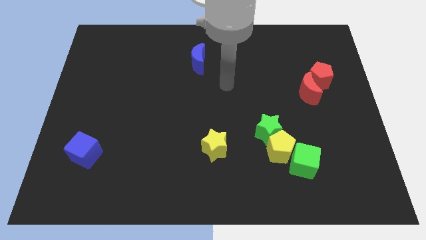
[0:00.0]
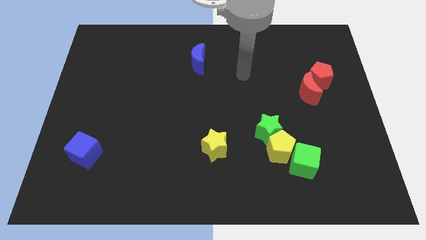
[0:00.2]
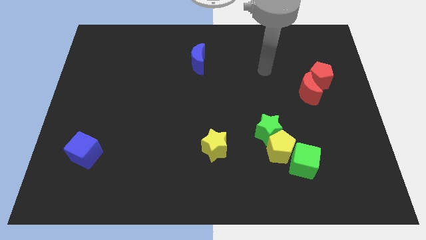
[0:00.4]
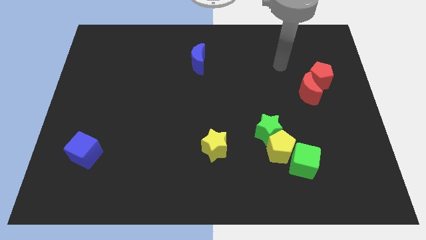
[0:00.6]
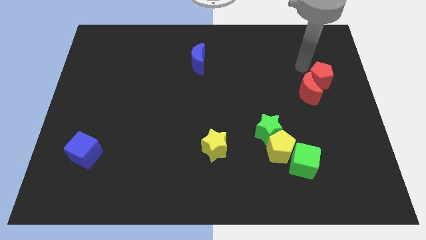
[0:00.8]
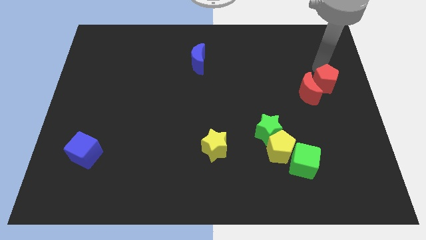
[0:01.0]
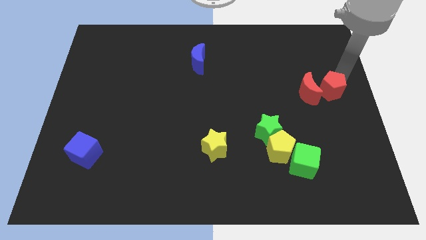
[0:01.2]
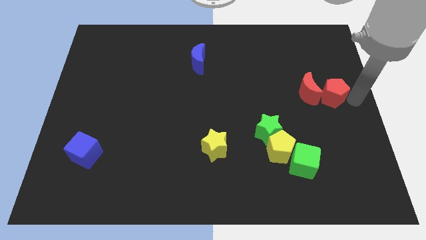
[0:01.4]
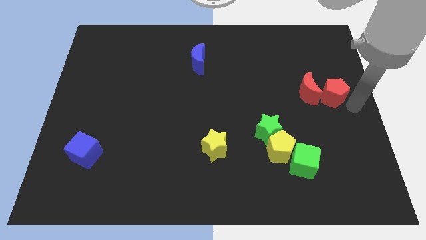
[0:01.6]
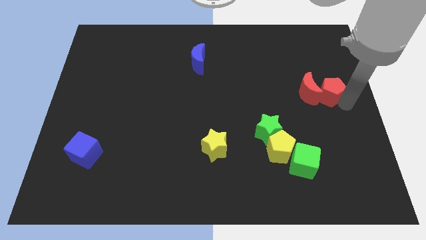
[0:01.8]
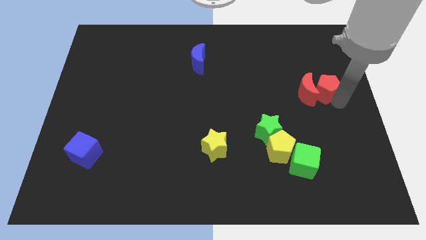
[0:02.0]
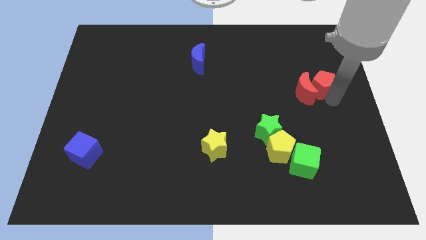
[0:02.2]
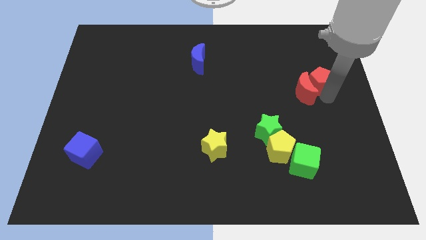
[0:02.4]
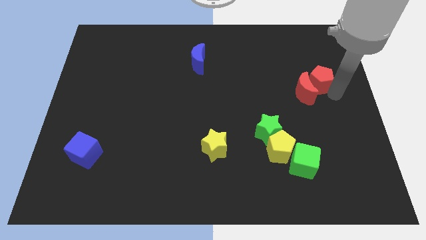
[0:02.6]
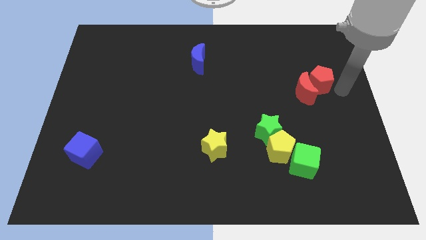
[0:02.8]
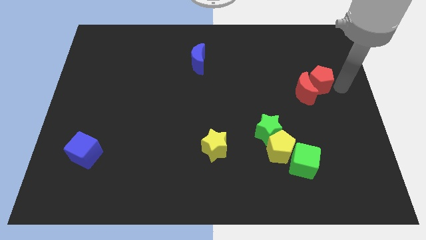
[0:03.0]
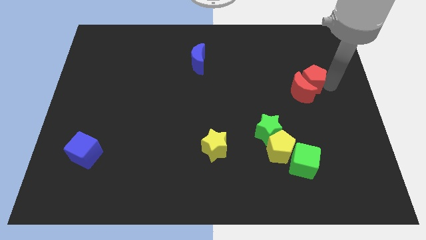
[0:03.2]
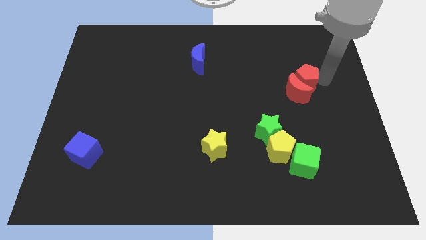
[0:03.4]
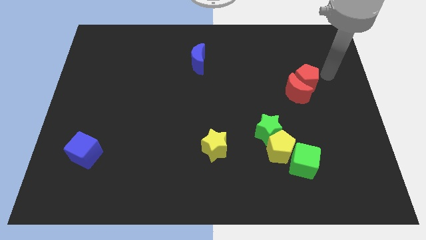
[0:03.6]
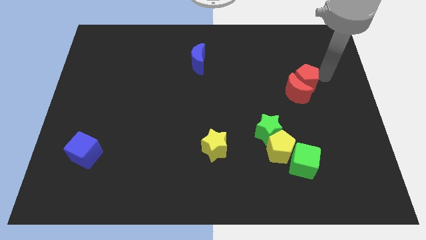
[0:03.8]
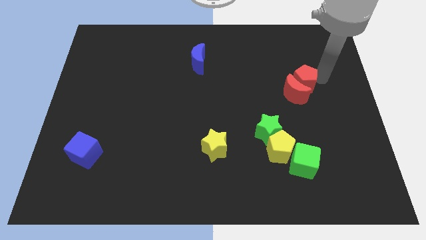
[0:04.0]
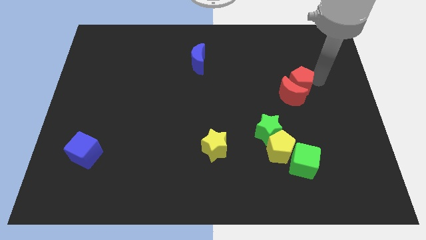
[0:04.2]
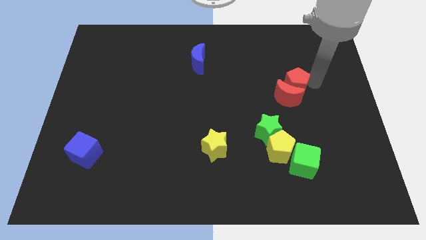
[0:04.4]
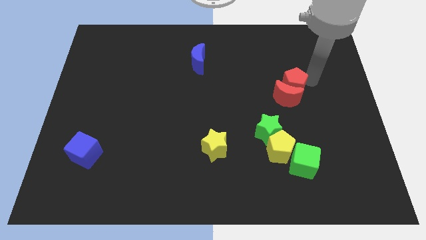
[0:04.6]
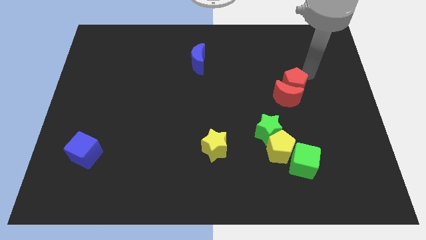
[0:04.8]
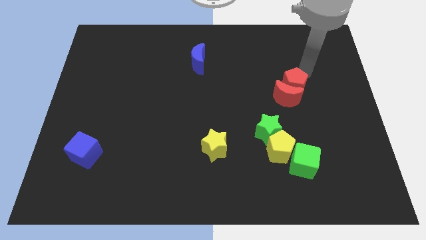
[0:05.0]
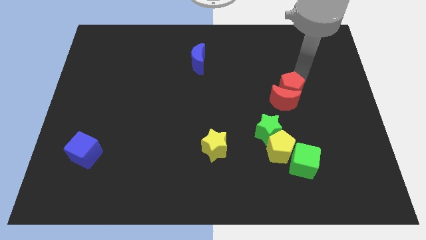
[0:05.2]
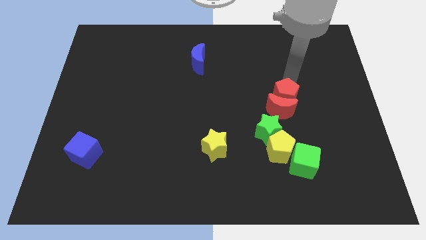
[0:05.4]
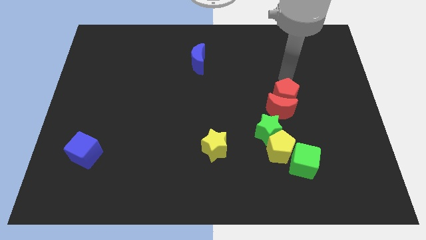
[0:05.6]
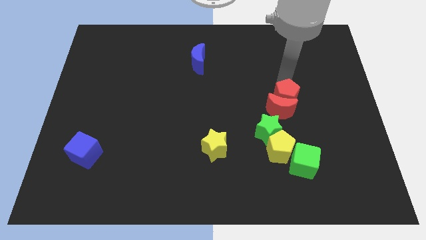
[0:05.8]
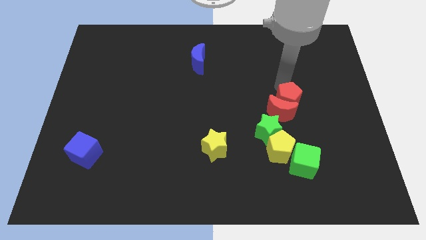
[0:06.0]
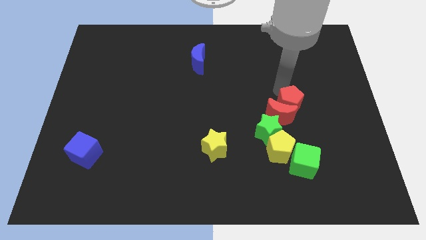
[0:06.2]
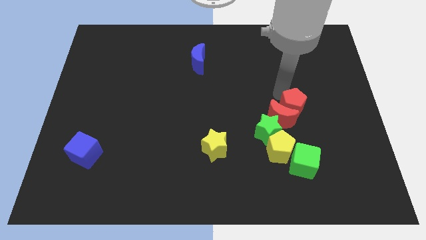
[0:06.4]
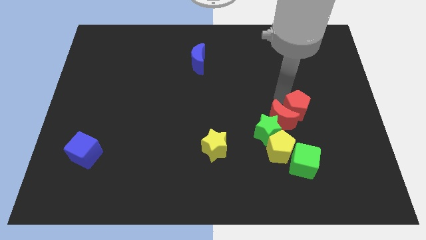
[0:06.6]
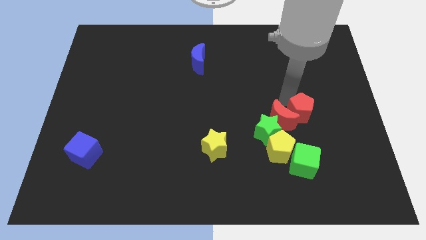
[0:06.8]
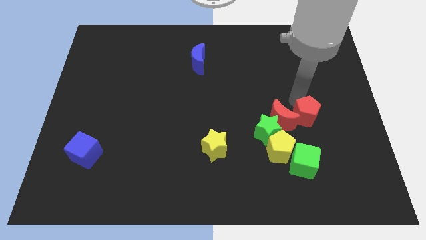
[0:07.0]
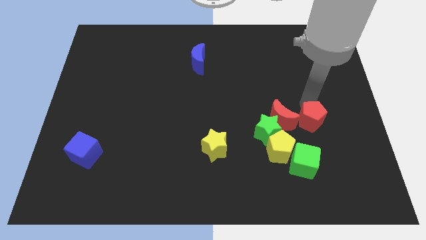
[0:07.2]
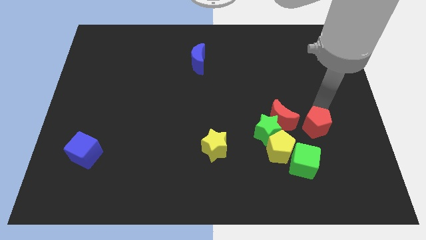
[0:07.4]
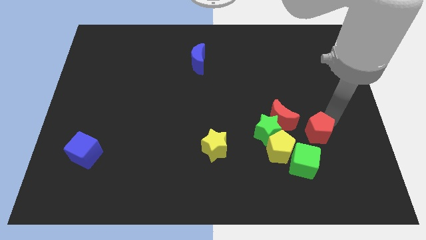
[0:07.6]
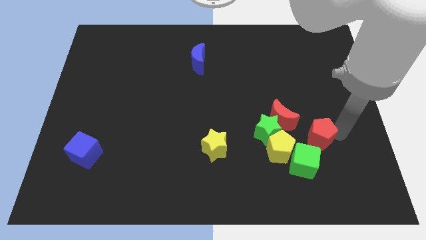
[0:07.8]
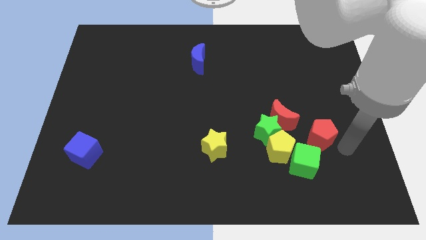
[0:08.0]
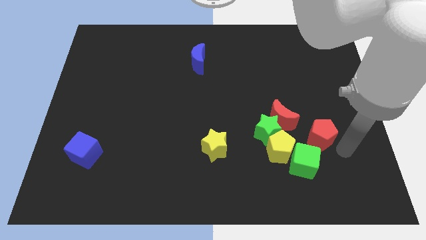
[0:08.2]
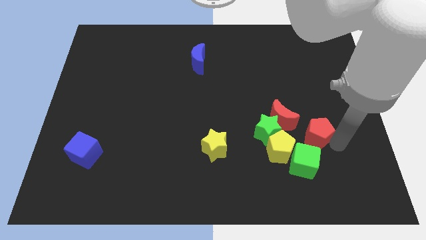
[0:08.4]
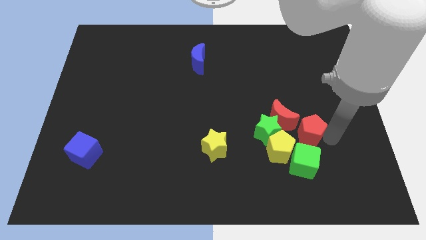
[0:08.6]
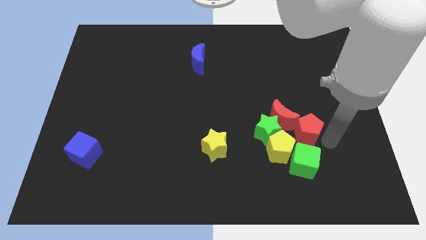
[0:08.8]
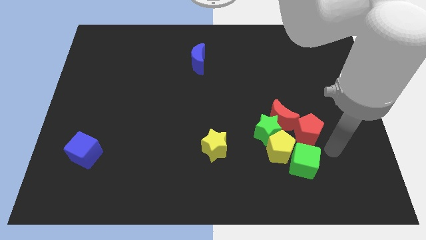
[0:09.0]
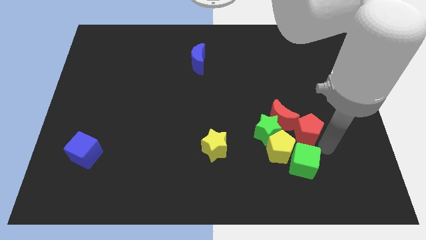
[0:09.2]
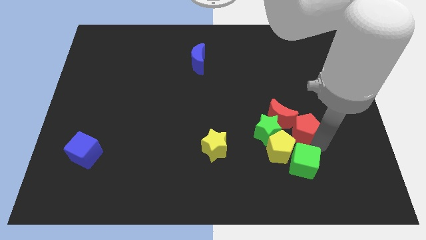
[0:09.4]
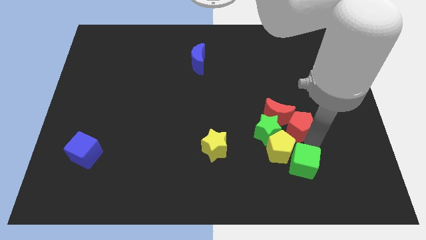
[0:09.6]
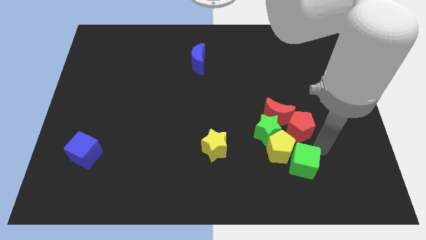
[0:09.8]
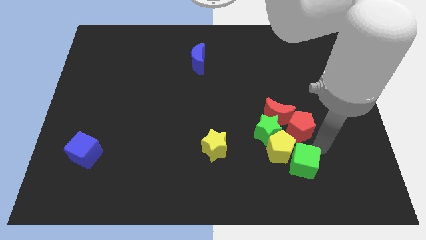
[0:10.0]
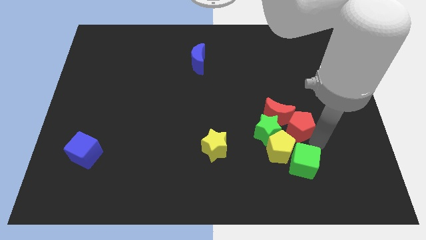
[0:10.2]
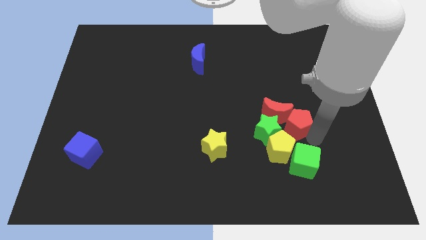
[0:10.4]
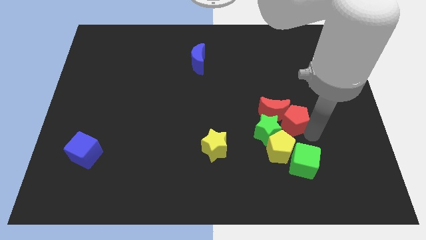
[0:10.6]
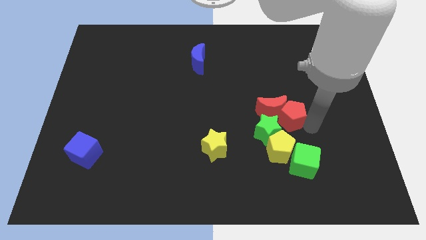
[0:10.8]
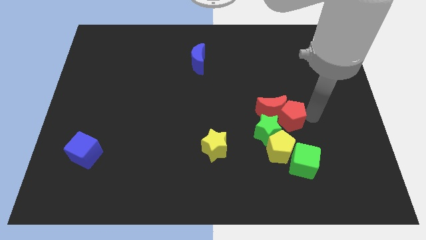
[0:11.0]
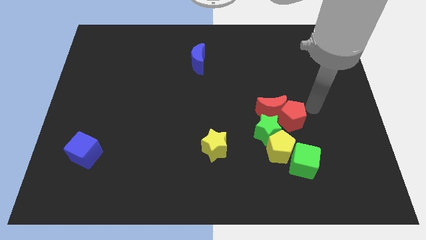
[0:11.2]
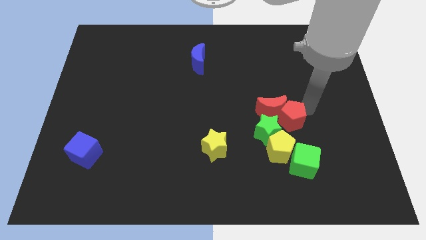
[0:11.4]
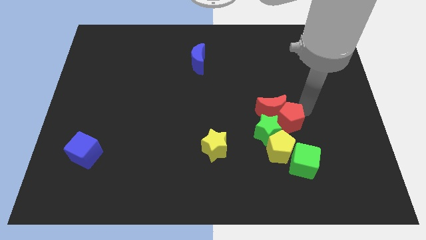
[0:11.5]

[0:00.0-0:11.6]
move the red pentagon close to the green star
